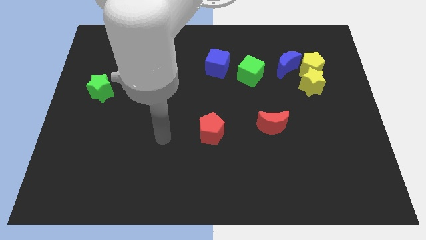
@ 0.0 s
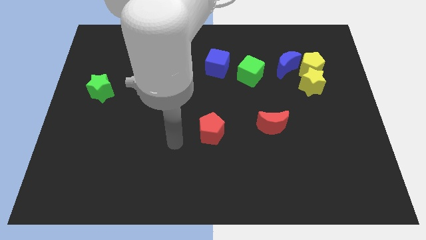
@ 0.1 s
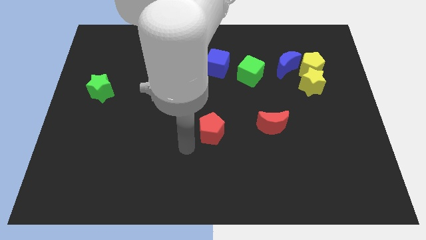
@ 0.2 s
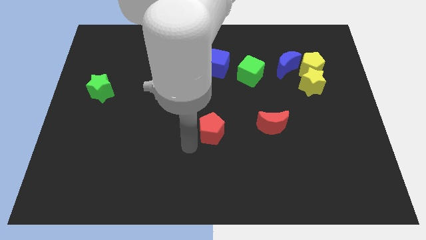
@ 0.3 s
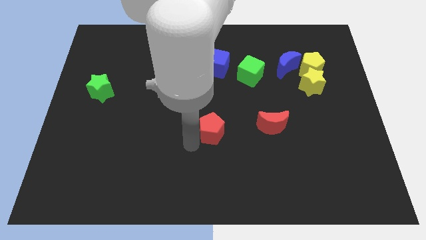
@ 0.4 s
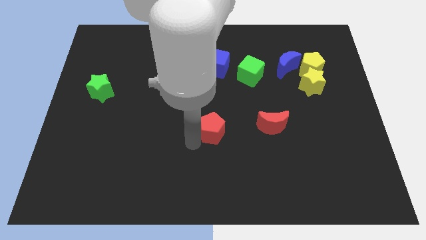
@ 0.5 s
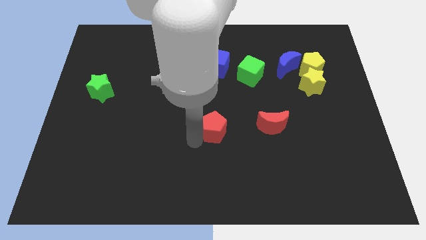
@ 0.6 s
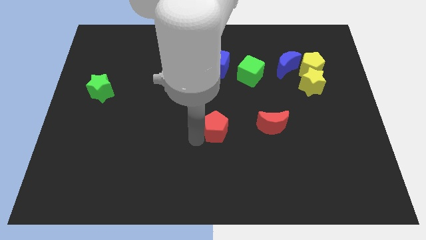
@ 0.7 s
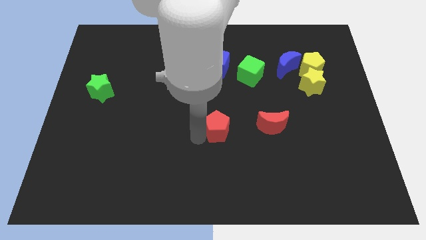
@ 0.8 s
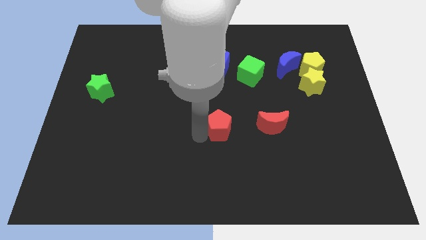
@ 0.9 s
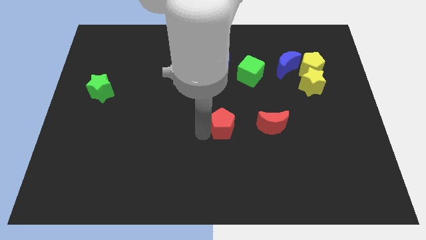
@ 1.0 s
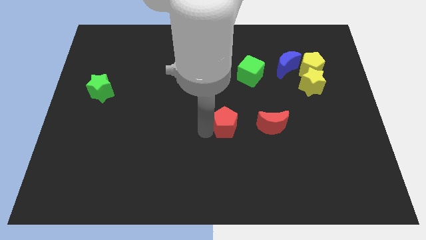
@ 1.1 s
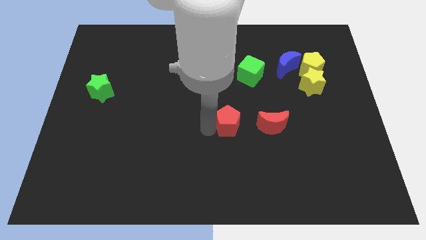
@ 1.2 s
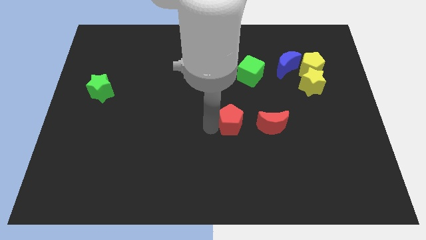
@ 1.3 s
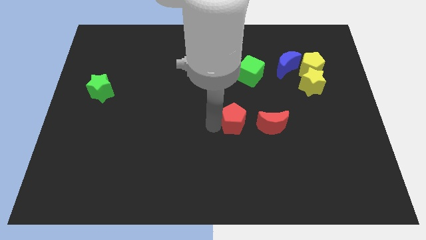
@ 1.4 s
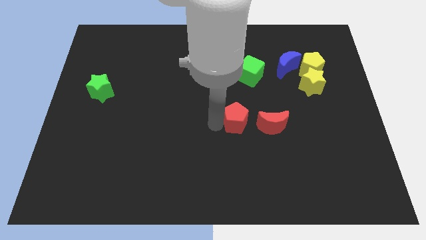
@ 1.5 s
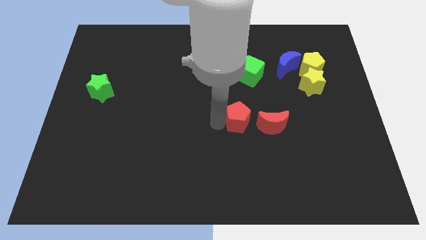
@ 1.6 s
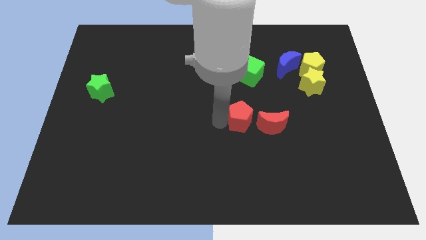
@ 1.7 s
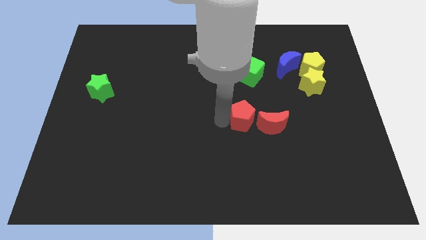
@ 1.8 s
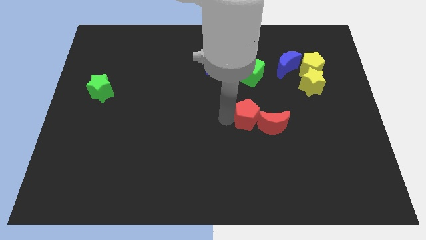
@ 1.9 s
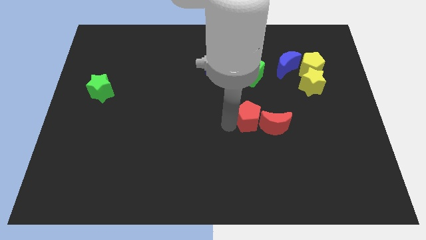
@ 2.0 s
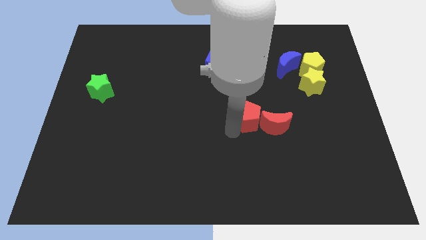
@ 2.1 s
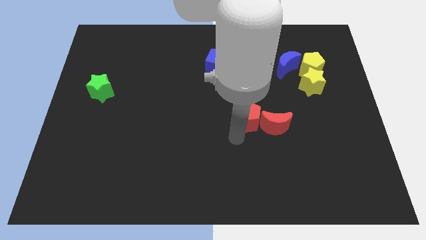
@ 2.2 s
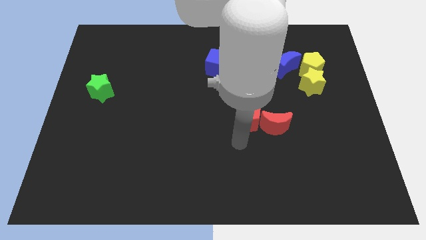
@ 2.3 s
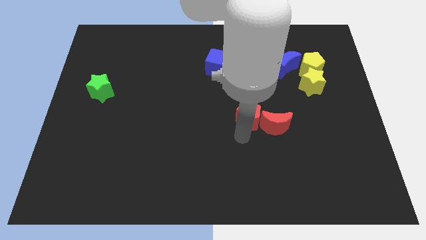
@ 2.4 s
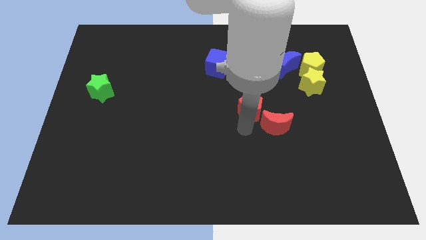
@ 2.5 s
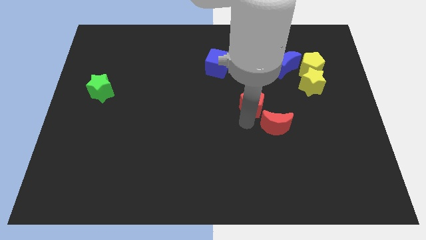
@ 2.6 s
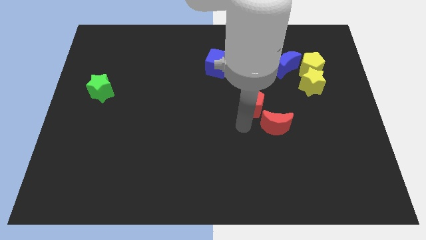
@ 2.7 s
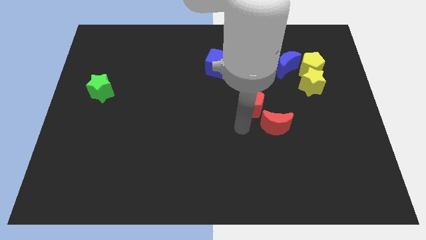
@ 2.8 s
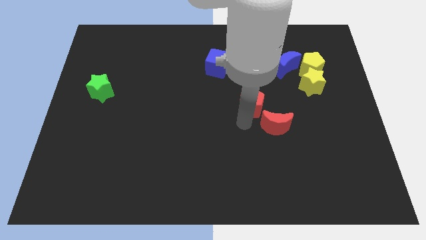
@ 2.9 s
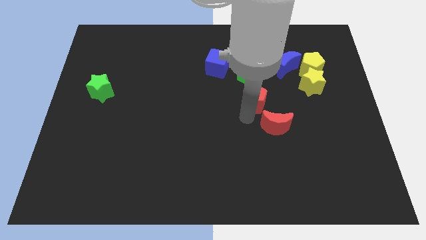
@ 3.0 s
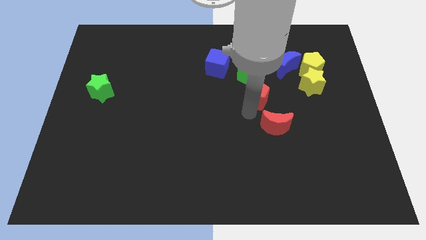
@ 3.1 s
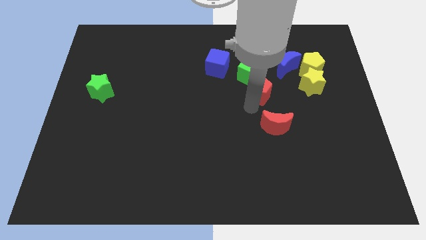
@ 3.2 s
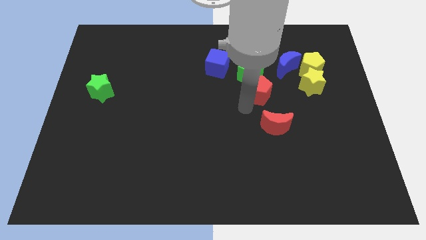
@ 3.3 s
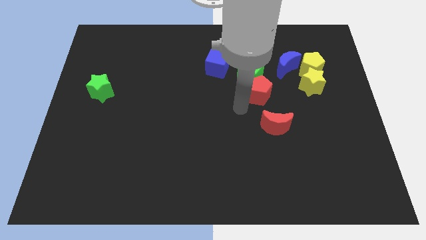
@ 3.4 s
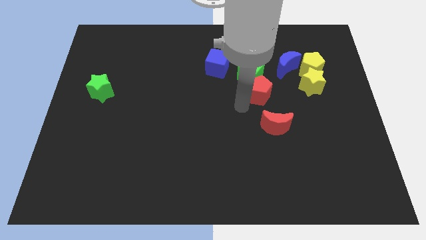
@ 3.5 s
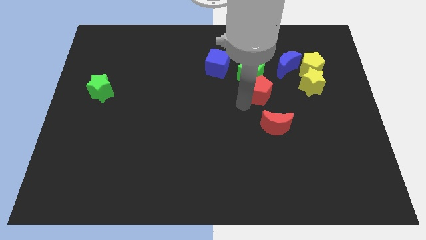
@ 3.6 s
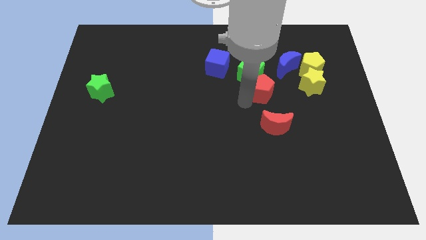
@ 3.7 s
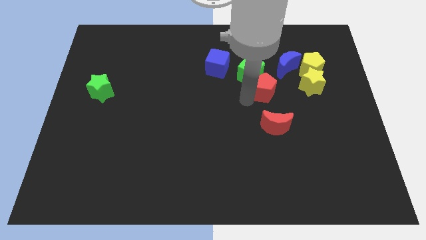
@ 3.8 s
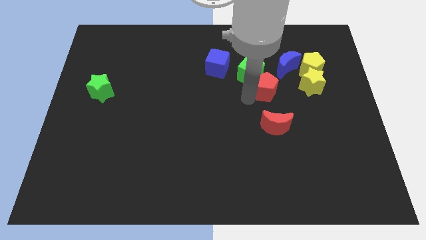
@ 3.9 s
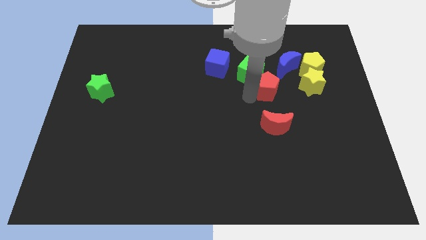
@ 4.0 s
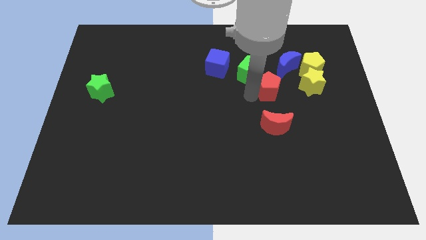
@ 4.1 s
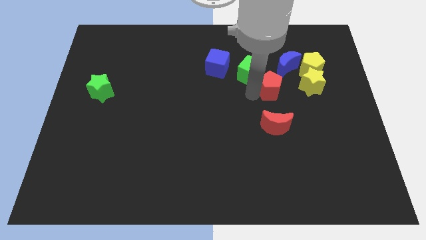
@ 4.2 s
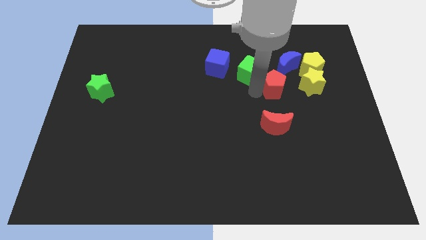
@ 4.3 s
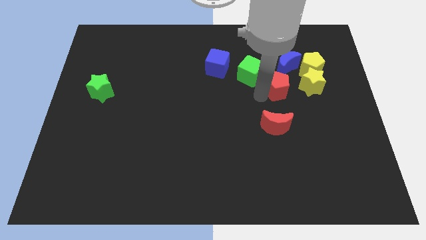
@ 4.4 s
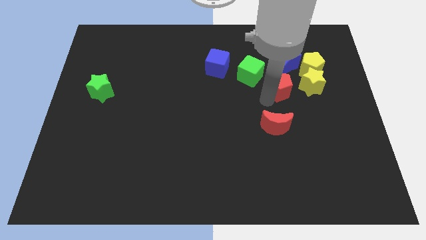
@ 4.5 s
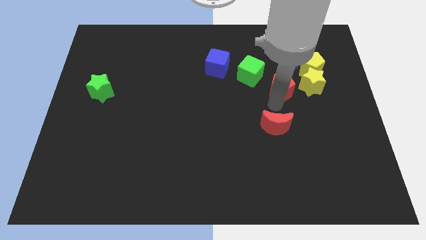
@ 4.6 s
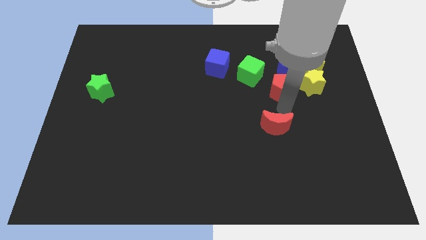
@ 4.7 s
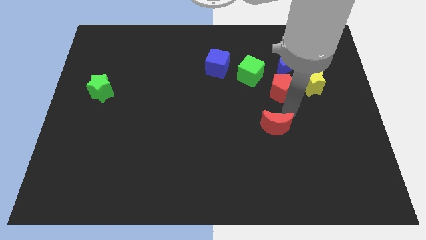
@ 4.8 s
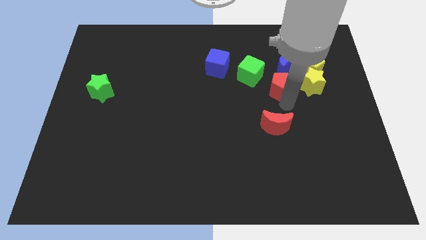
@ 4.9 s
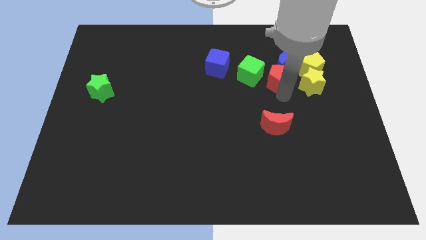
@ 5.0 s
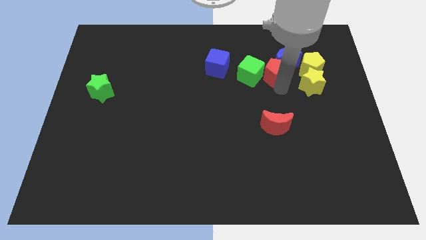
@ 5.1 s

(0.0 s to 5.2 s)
slide the red pentagon to the top right of the green cube

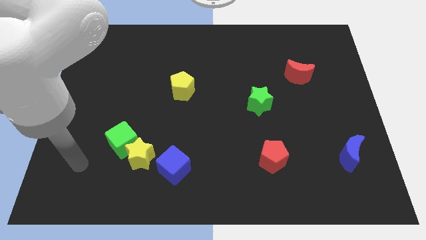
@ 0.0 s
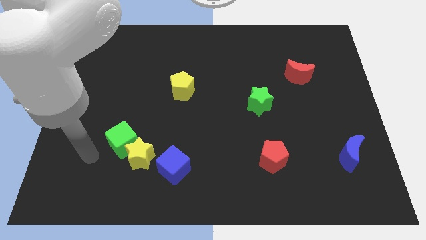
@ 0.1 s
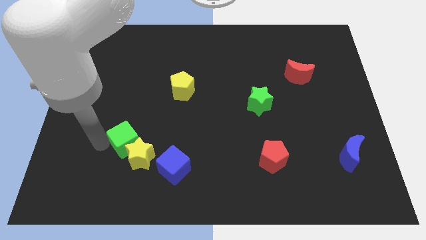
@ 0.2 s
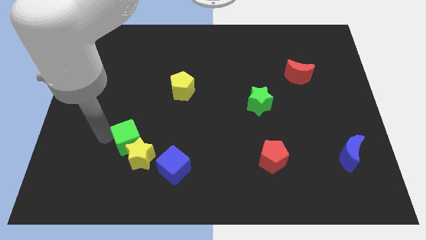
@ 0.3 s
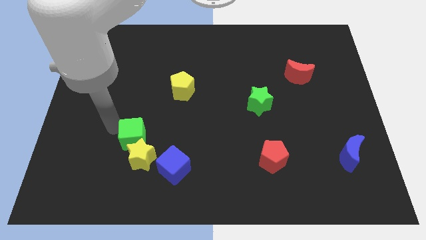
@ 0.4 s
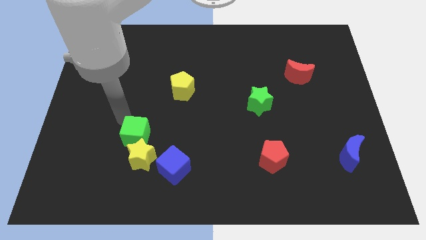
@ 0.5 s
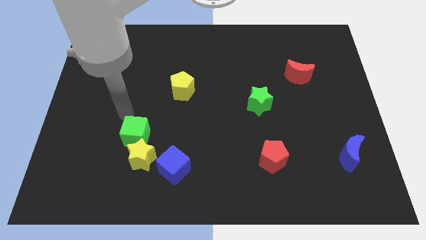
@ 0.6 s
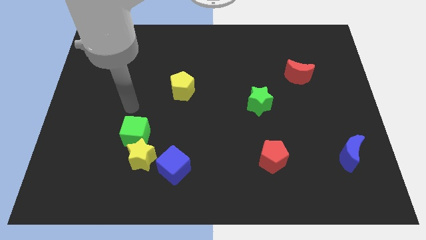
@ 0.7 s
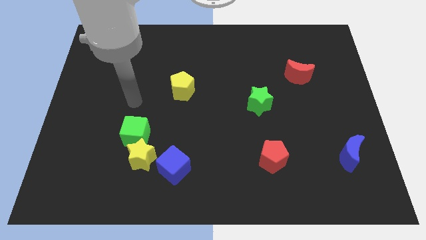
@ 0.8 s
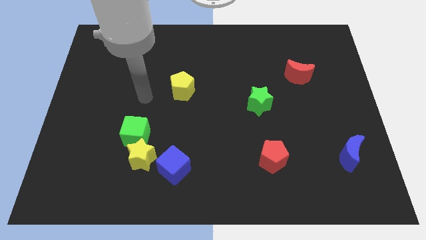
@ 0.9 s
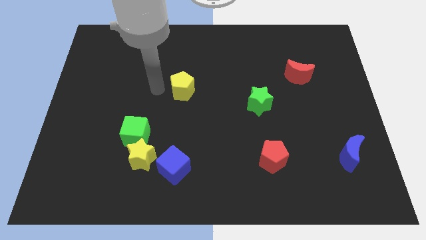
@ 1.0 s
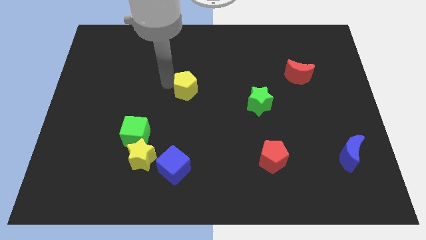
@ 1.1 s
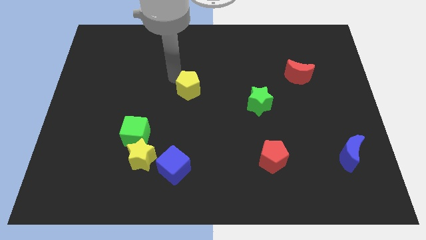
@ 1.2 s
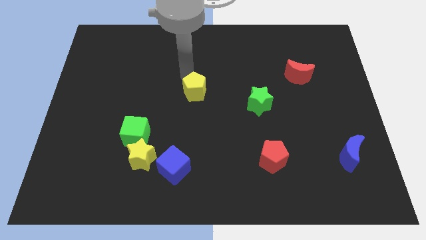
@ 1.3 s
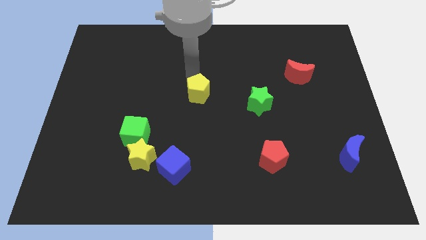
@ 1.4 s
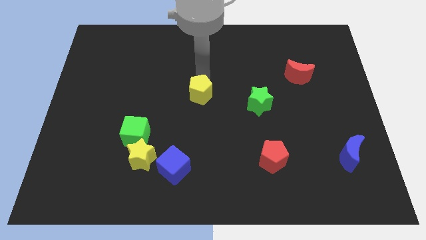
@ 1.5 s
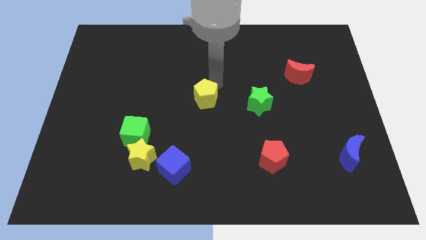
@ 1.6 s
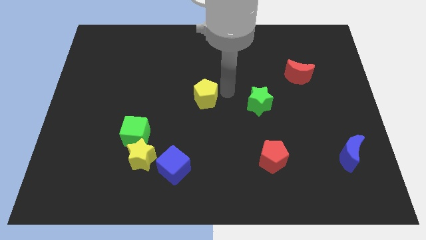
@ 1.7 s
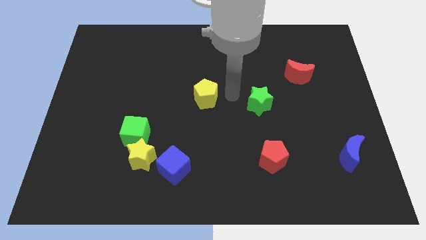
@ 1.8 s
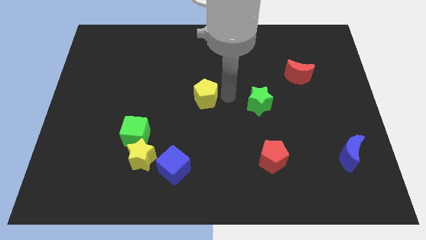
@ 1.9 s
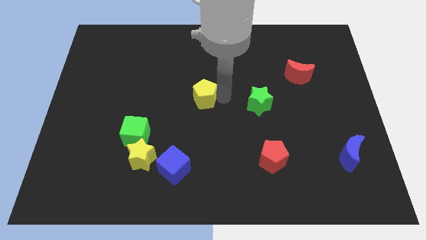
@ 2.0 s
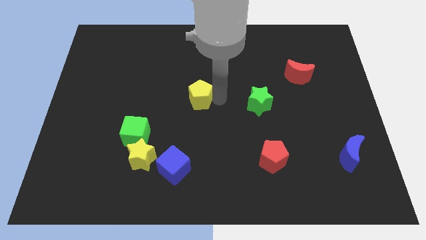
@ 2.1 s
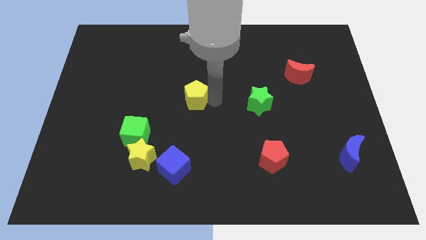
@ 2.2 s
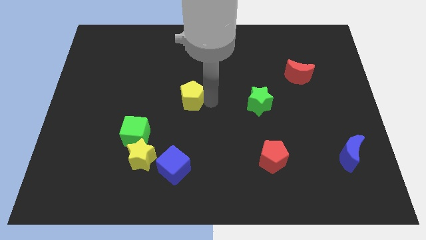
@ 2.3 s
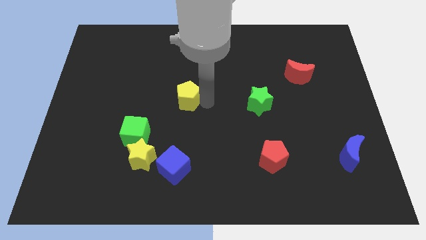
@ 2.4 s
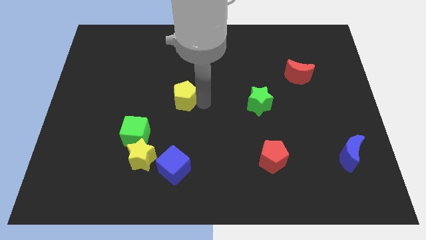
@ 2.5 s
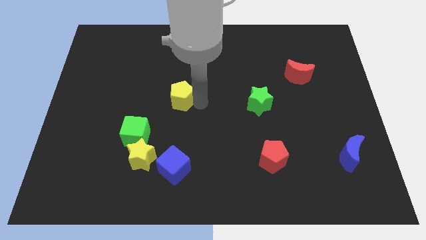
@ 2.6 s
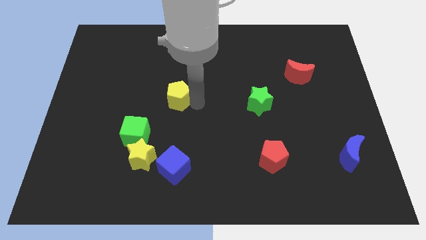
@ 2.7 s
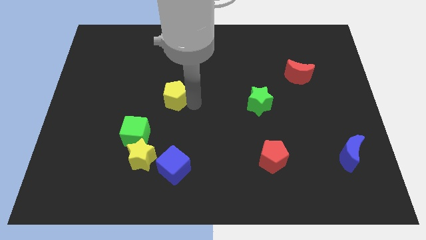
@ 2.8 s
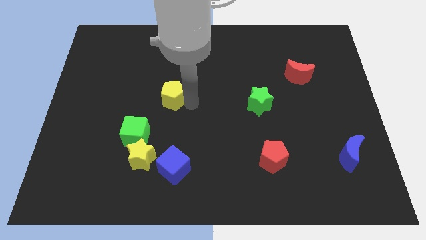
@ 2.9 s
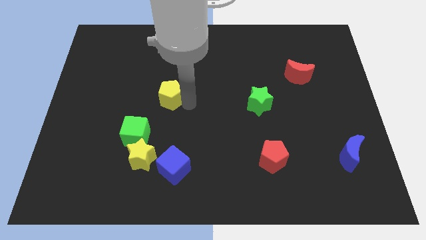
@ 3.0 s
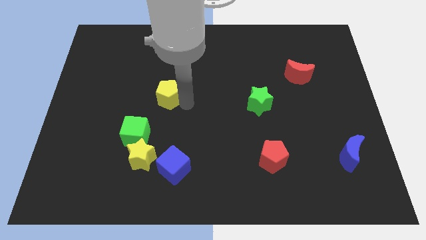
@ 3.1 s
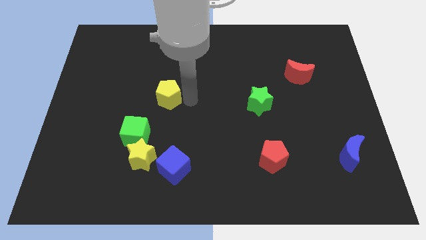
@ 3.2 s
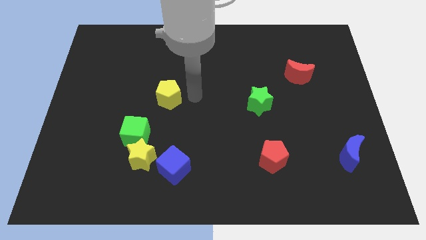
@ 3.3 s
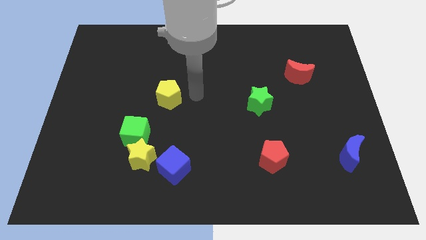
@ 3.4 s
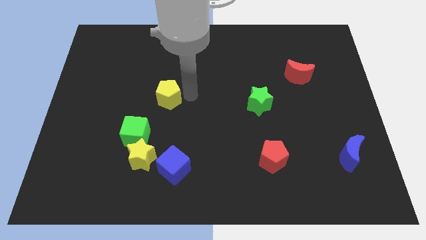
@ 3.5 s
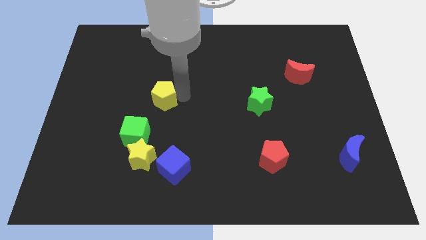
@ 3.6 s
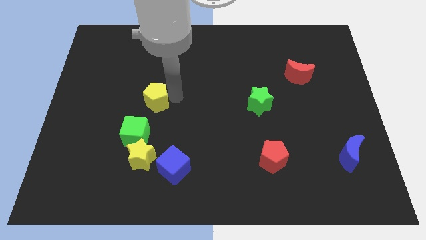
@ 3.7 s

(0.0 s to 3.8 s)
slide the yellow pentagon to the top of the green cube
